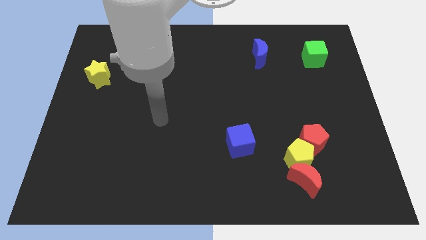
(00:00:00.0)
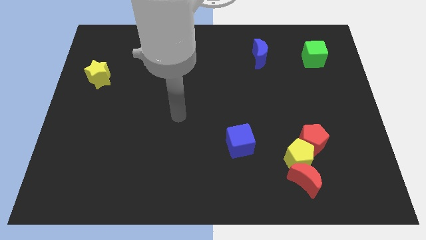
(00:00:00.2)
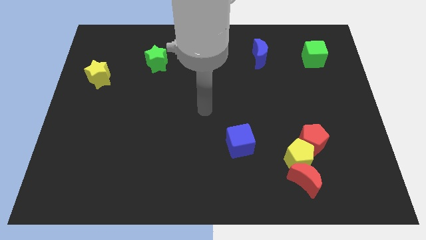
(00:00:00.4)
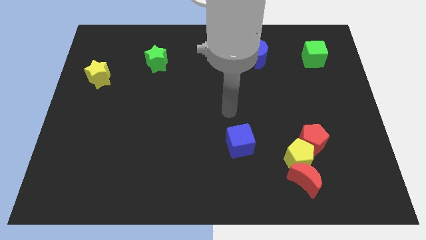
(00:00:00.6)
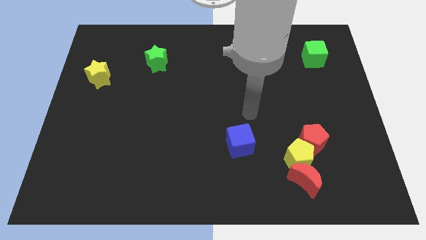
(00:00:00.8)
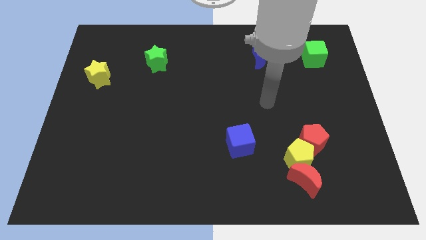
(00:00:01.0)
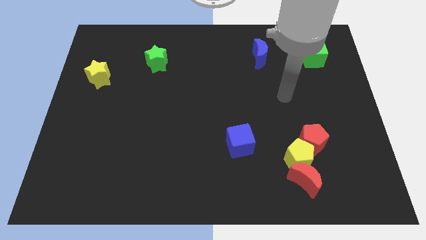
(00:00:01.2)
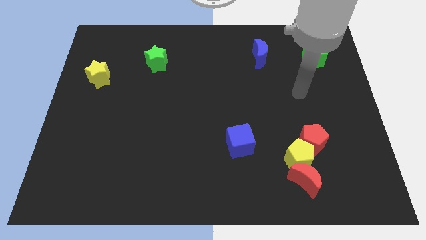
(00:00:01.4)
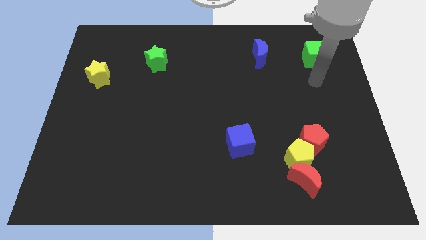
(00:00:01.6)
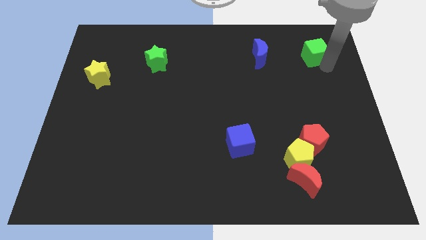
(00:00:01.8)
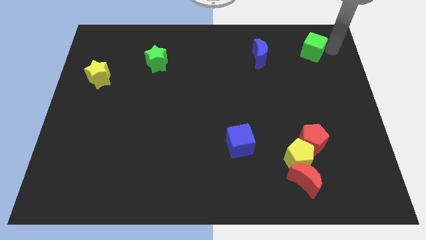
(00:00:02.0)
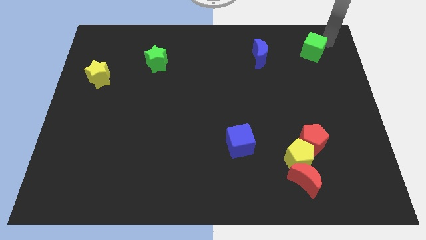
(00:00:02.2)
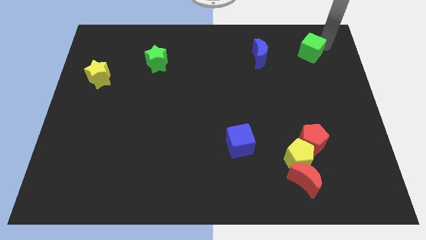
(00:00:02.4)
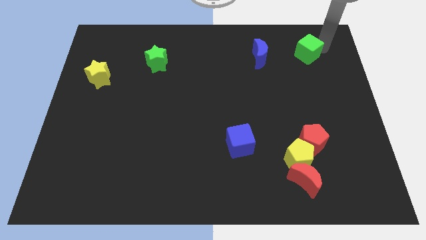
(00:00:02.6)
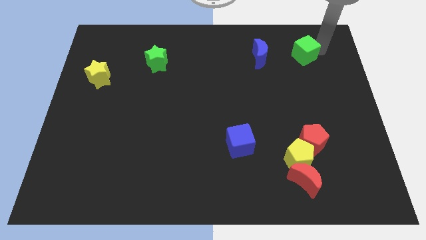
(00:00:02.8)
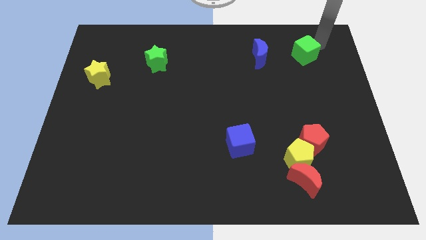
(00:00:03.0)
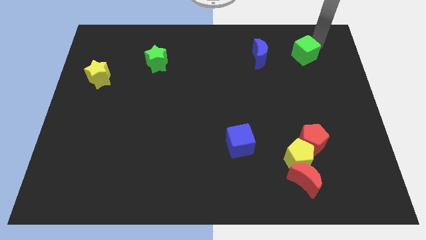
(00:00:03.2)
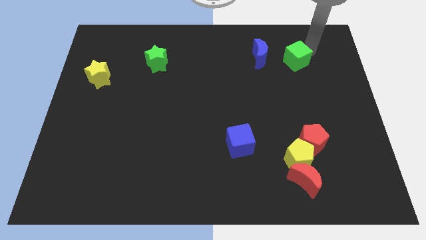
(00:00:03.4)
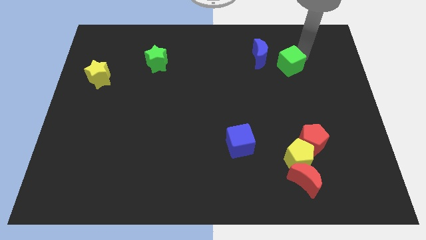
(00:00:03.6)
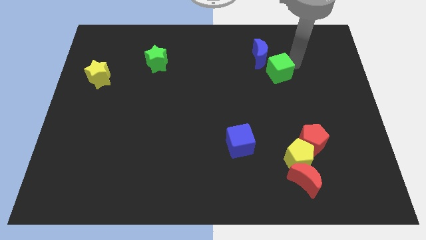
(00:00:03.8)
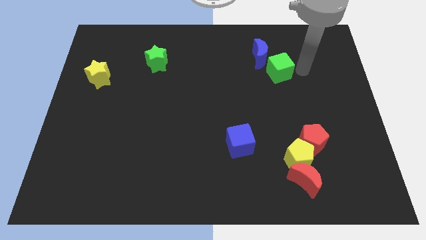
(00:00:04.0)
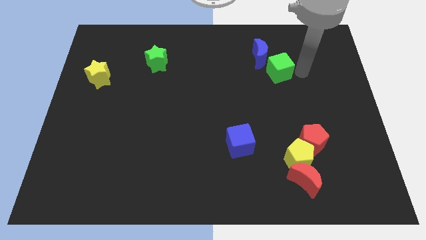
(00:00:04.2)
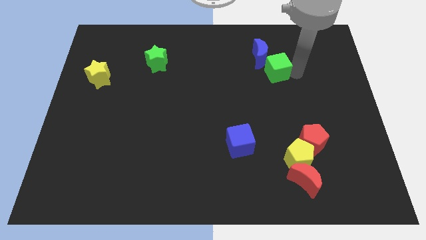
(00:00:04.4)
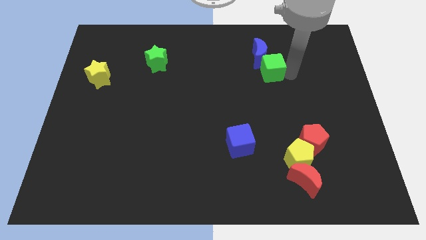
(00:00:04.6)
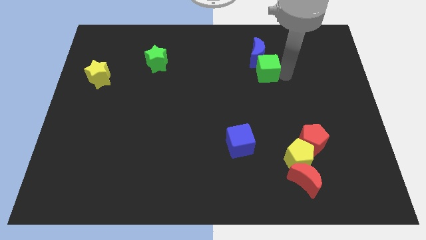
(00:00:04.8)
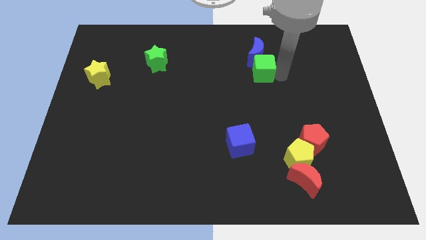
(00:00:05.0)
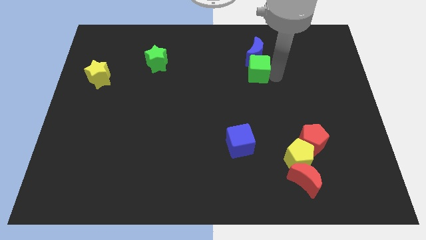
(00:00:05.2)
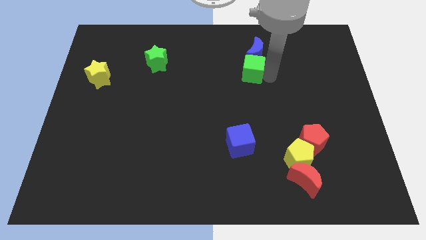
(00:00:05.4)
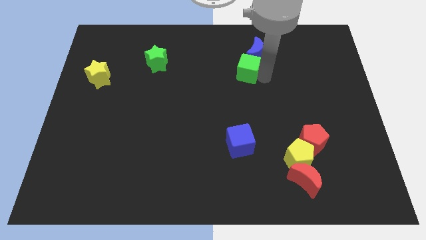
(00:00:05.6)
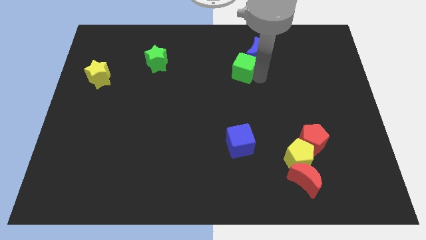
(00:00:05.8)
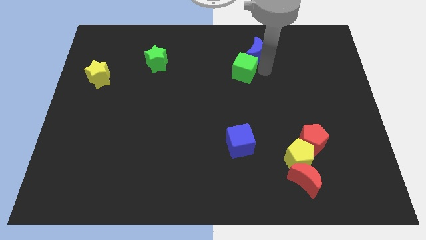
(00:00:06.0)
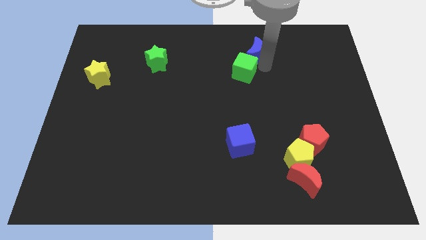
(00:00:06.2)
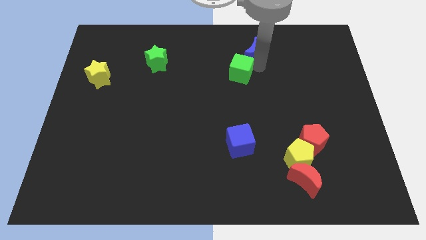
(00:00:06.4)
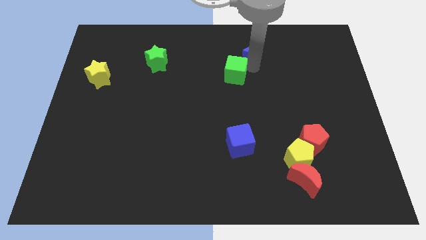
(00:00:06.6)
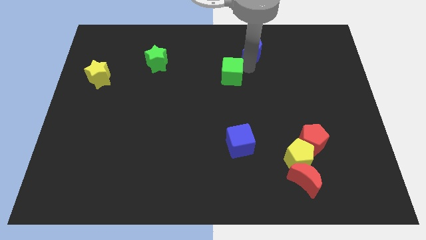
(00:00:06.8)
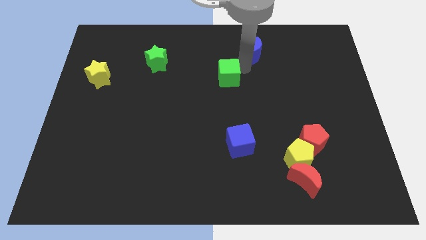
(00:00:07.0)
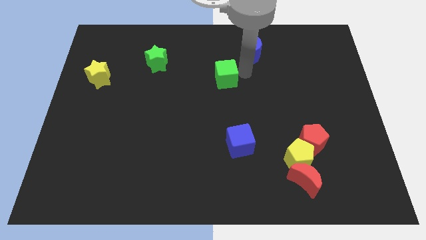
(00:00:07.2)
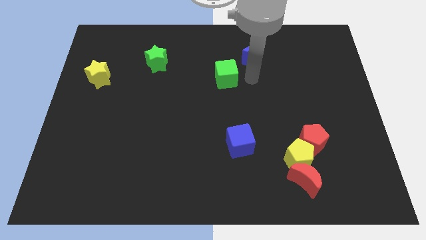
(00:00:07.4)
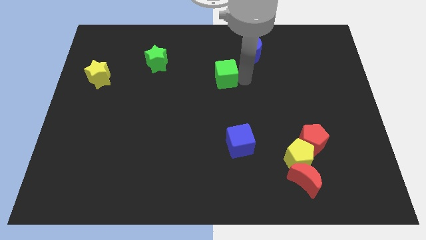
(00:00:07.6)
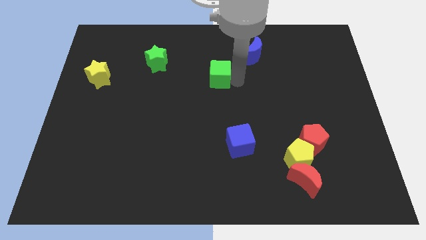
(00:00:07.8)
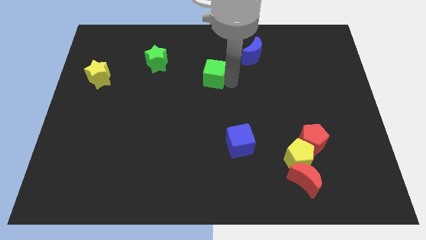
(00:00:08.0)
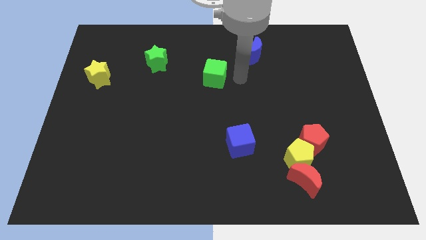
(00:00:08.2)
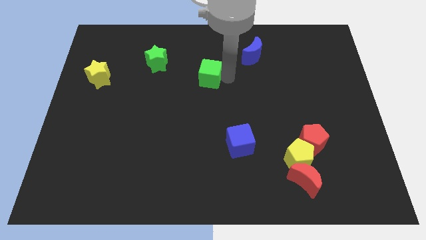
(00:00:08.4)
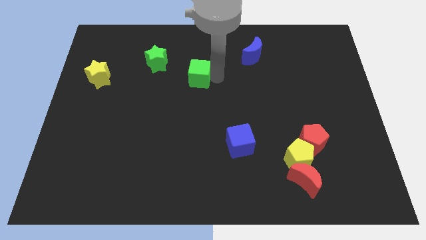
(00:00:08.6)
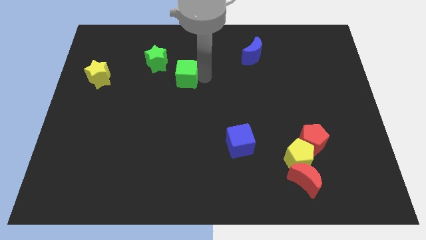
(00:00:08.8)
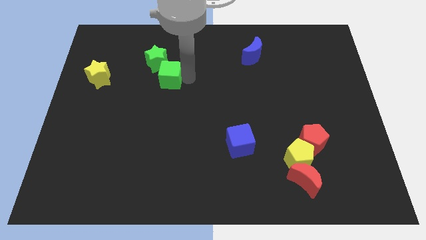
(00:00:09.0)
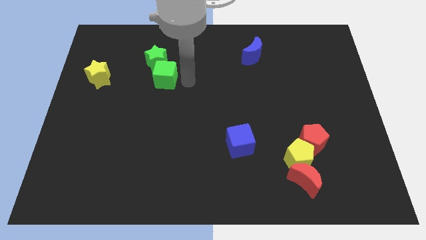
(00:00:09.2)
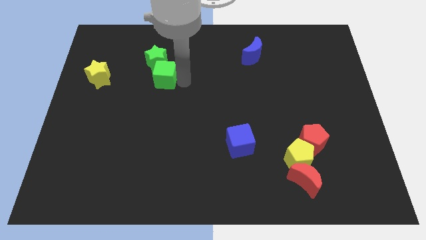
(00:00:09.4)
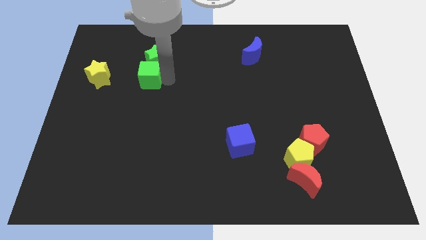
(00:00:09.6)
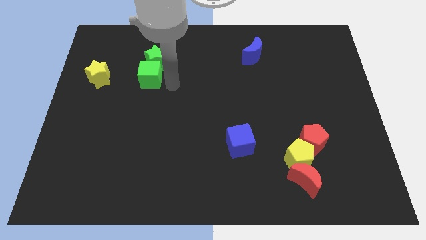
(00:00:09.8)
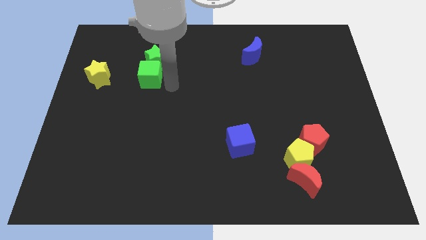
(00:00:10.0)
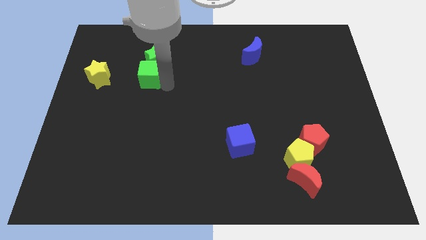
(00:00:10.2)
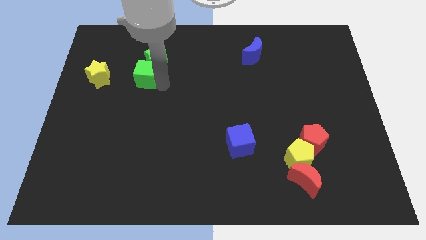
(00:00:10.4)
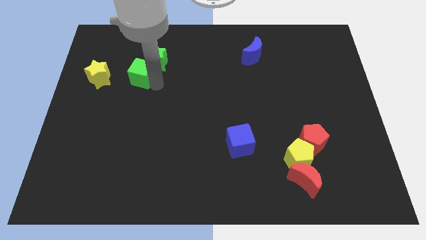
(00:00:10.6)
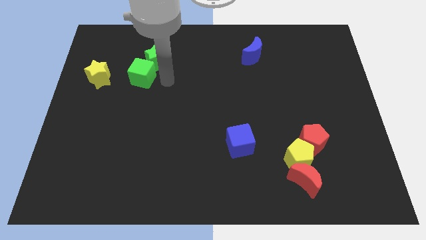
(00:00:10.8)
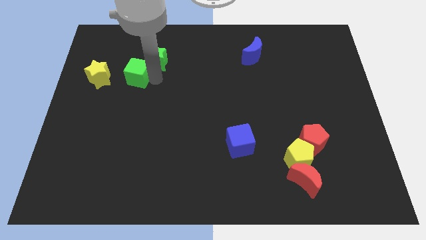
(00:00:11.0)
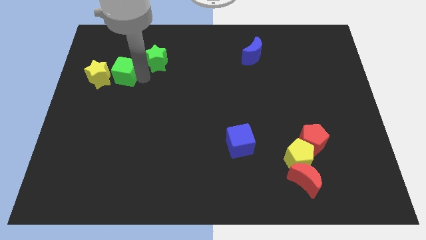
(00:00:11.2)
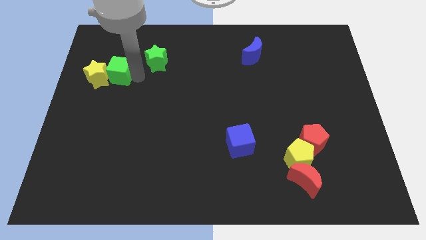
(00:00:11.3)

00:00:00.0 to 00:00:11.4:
move the green cube close to the yellow star

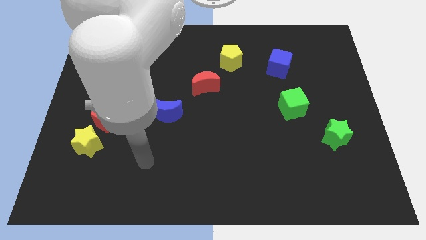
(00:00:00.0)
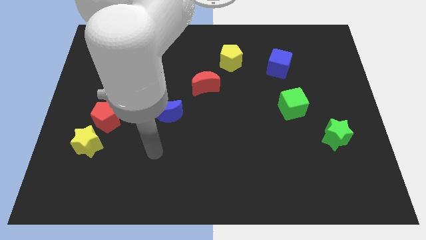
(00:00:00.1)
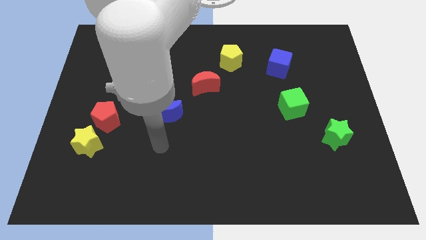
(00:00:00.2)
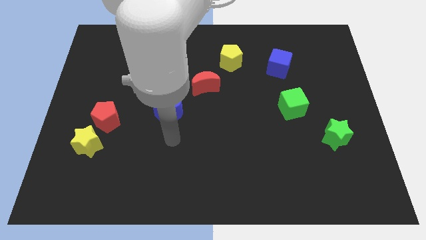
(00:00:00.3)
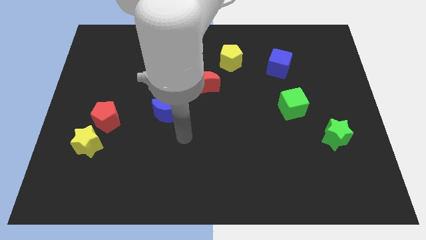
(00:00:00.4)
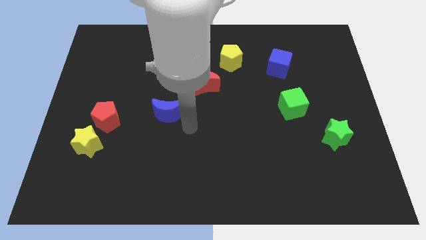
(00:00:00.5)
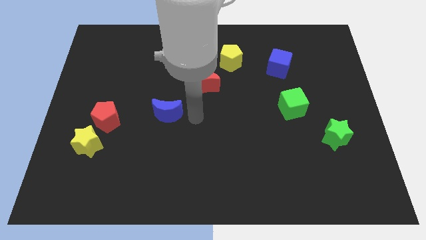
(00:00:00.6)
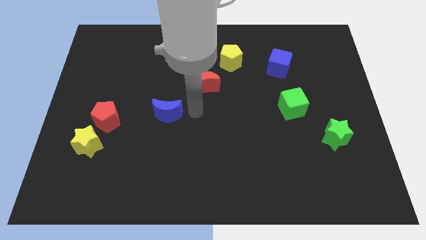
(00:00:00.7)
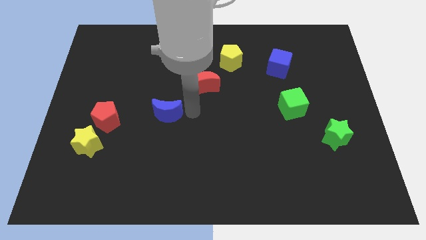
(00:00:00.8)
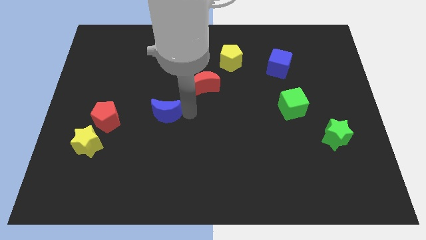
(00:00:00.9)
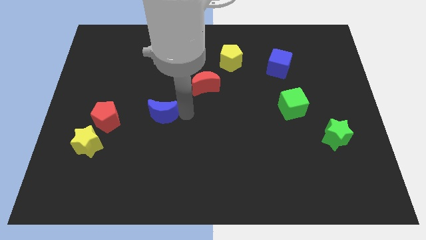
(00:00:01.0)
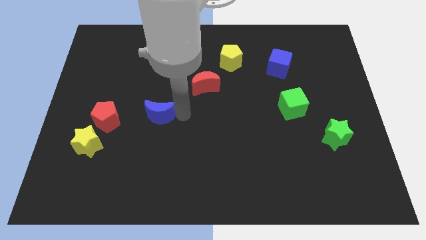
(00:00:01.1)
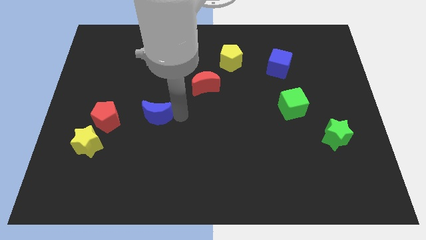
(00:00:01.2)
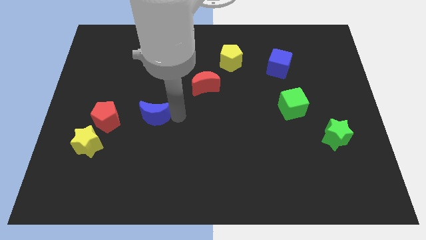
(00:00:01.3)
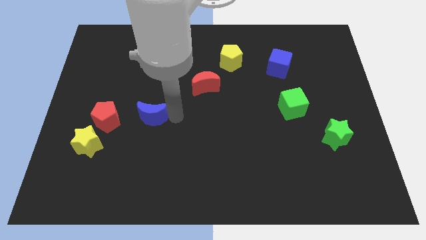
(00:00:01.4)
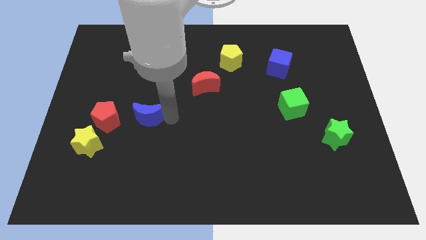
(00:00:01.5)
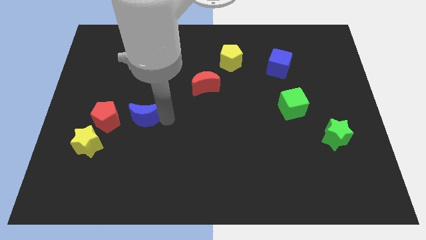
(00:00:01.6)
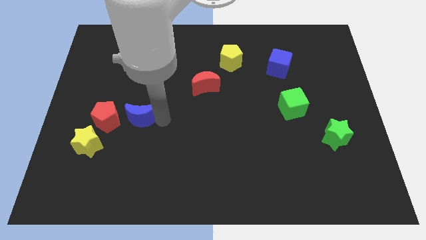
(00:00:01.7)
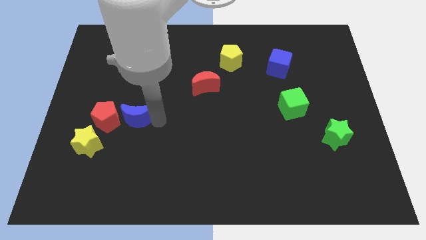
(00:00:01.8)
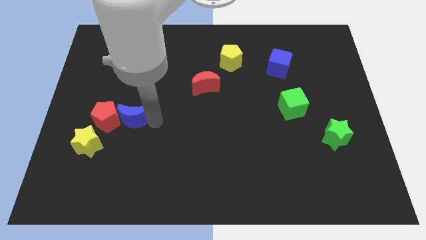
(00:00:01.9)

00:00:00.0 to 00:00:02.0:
move the blue moon close to the red pentagon

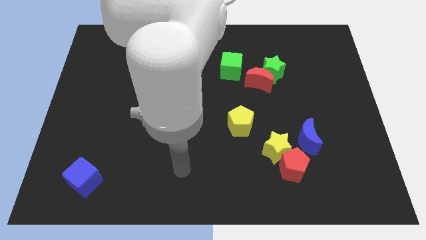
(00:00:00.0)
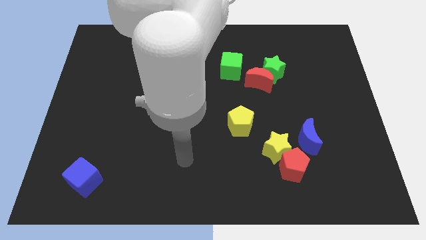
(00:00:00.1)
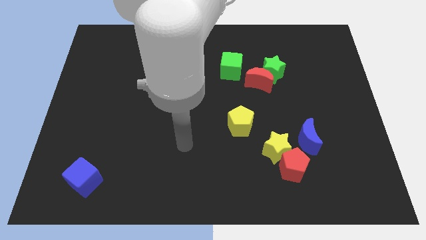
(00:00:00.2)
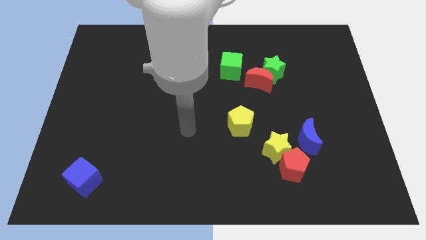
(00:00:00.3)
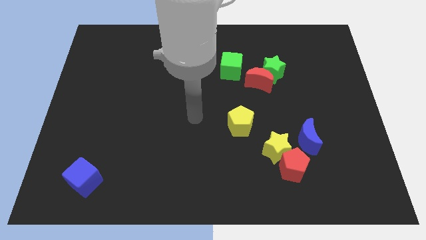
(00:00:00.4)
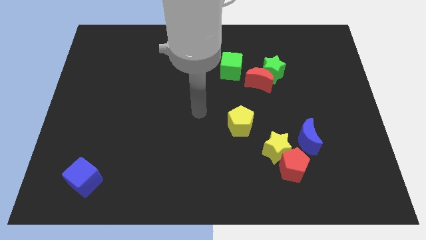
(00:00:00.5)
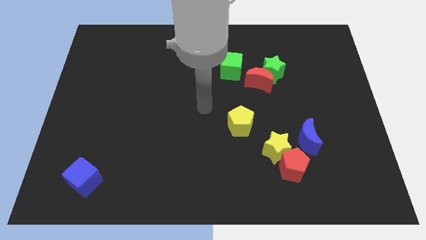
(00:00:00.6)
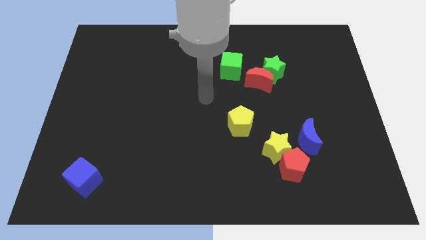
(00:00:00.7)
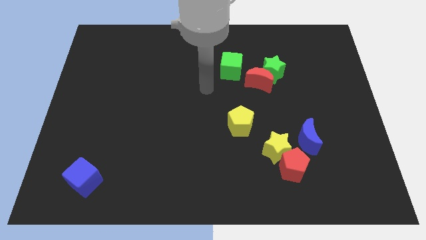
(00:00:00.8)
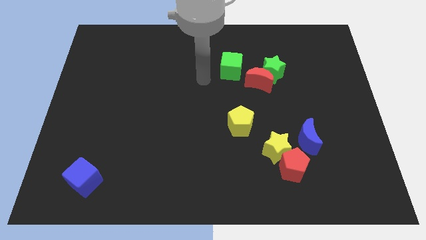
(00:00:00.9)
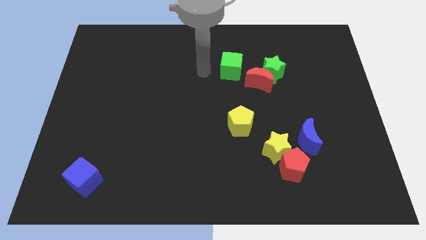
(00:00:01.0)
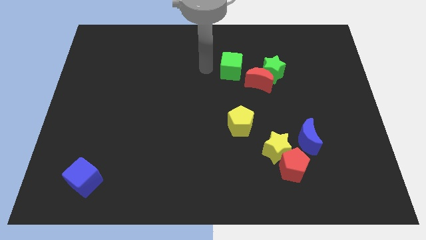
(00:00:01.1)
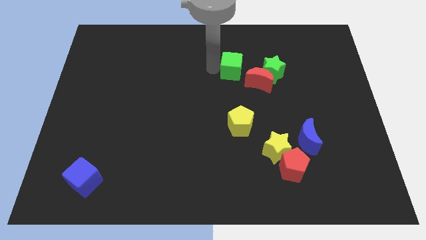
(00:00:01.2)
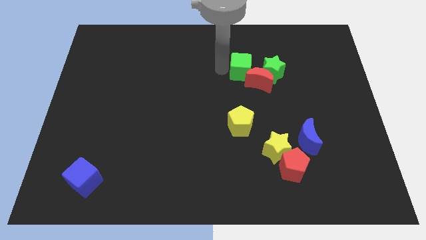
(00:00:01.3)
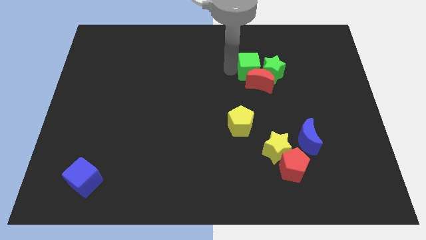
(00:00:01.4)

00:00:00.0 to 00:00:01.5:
slide the green cube towards the green star
